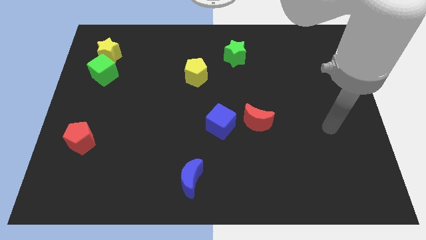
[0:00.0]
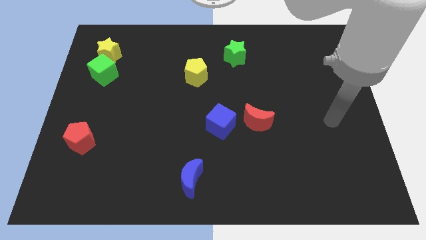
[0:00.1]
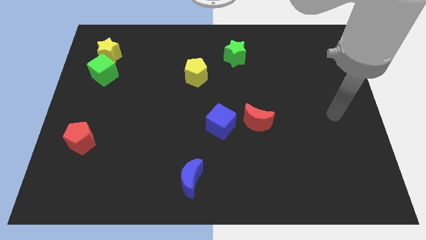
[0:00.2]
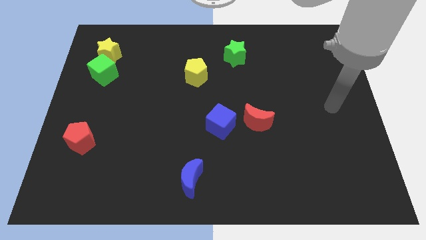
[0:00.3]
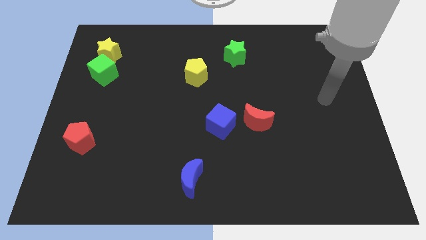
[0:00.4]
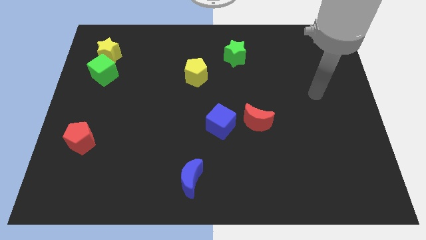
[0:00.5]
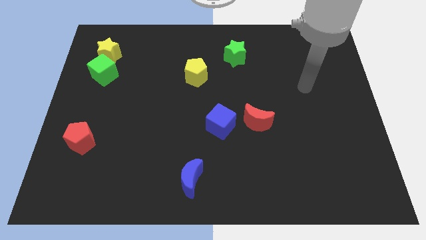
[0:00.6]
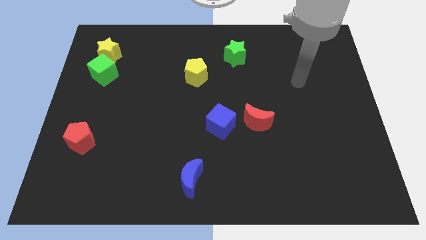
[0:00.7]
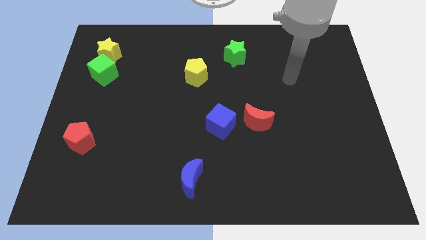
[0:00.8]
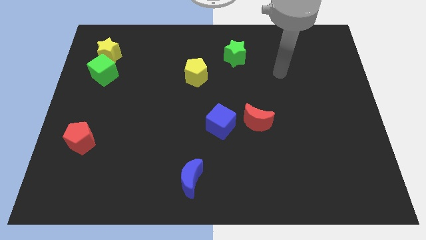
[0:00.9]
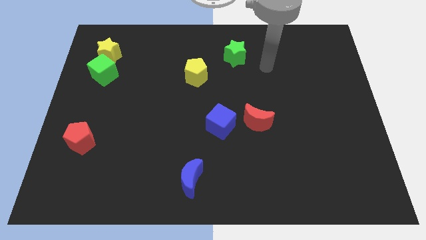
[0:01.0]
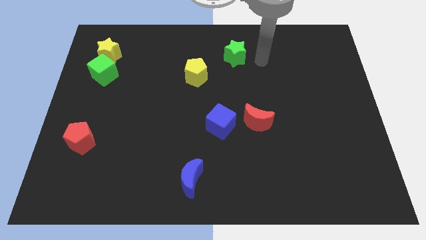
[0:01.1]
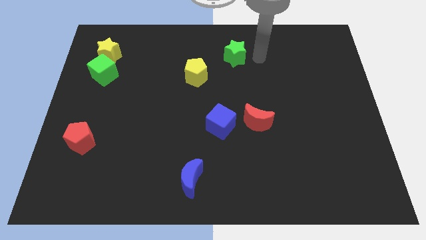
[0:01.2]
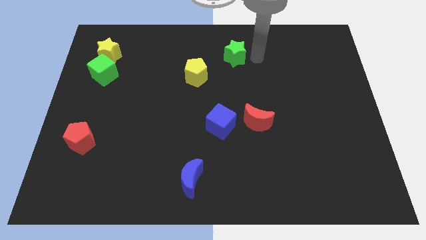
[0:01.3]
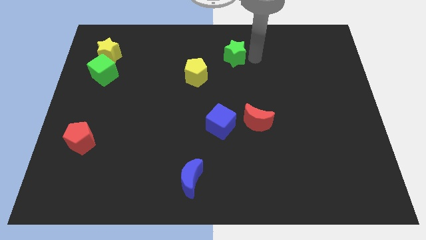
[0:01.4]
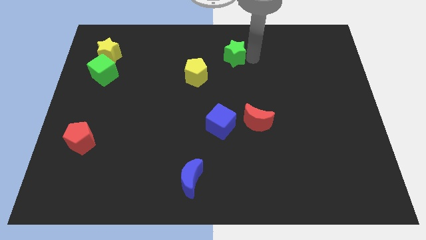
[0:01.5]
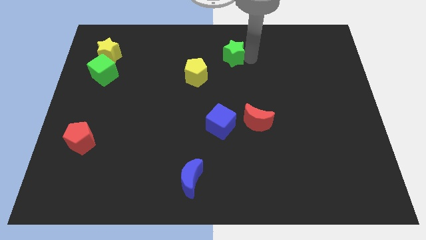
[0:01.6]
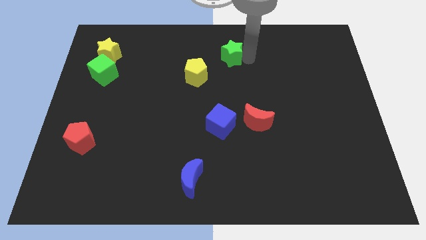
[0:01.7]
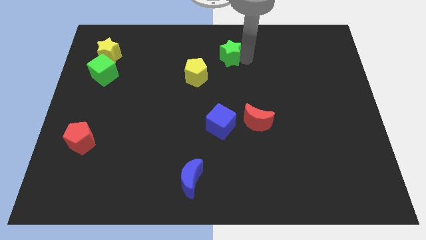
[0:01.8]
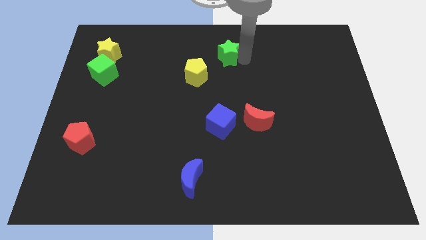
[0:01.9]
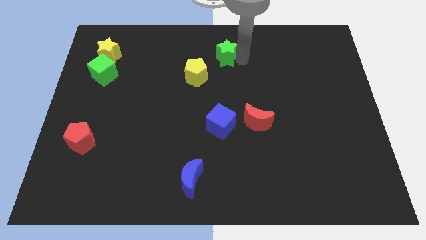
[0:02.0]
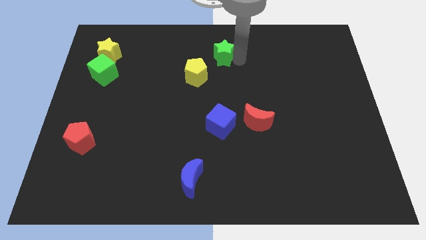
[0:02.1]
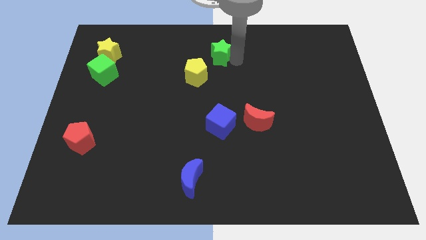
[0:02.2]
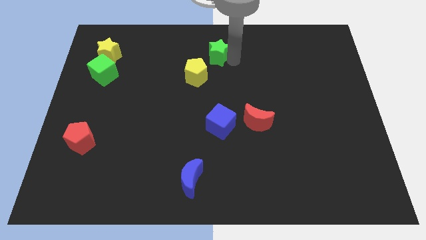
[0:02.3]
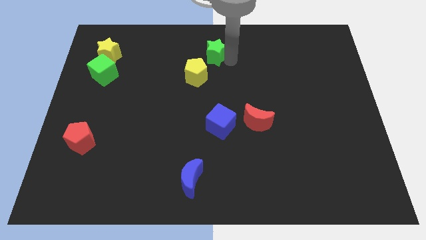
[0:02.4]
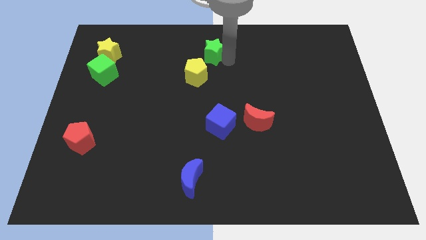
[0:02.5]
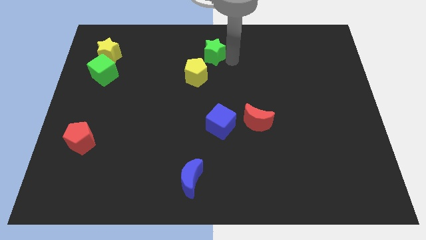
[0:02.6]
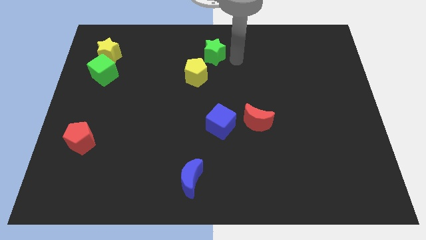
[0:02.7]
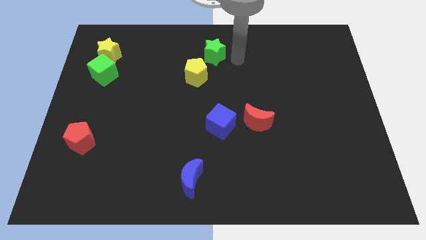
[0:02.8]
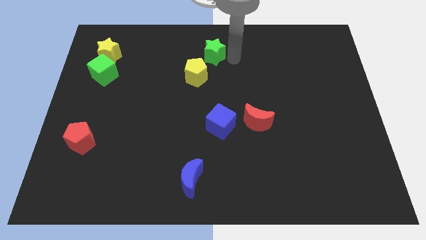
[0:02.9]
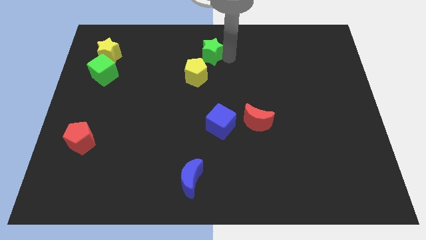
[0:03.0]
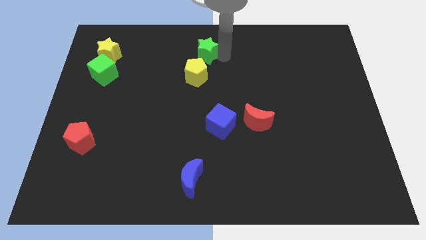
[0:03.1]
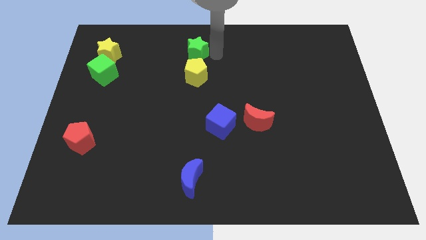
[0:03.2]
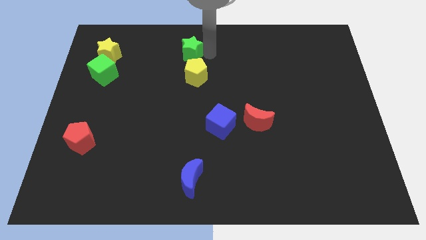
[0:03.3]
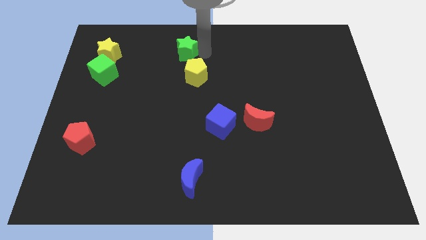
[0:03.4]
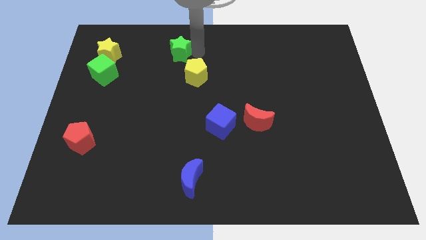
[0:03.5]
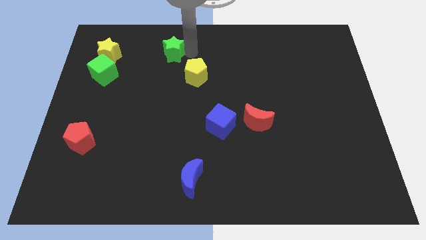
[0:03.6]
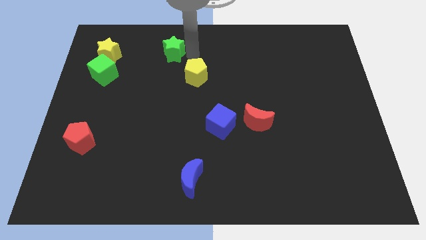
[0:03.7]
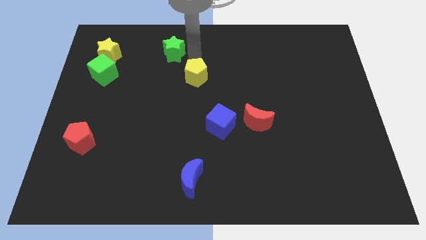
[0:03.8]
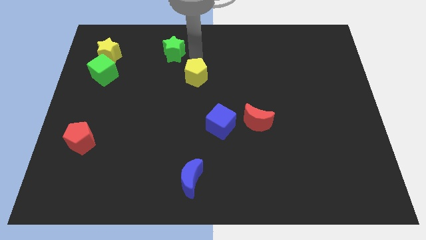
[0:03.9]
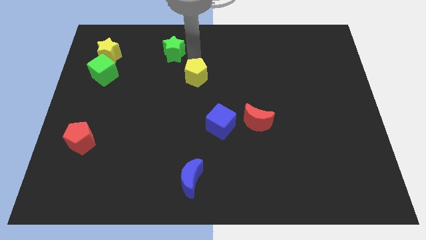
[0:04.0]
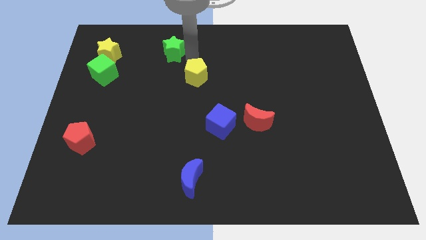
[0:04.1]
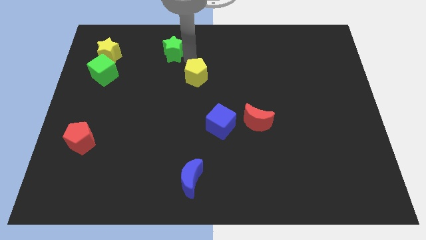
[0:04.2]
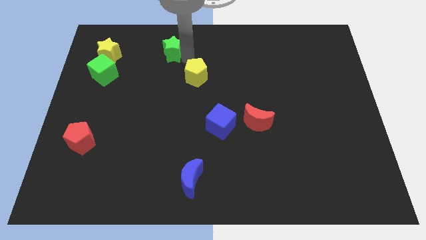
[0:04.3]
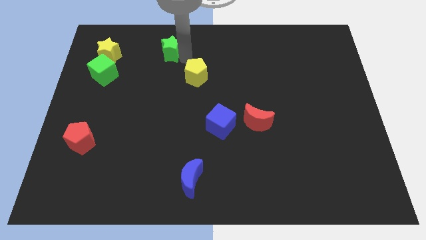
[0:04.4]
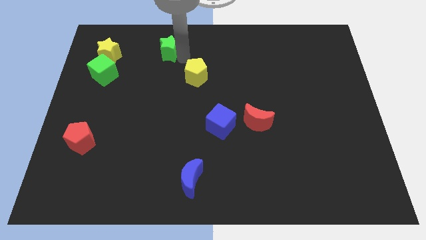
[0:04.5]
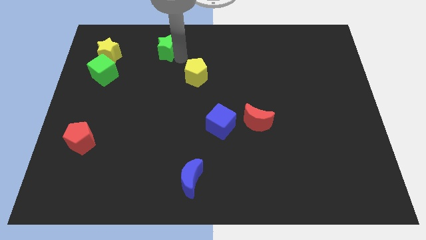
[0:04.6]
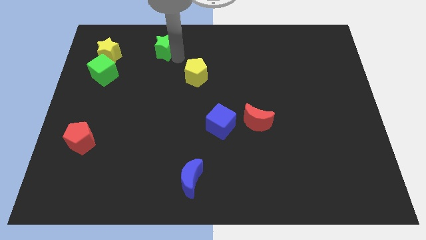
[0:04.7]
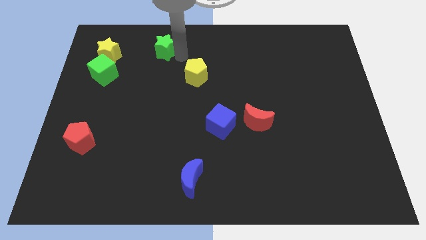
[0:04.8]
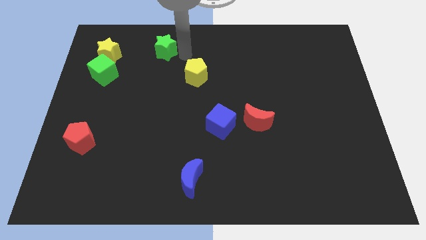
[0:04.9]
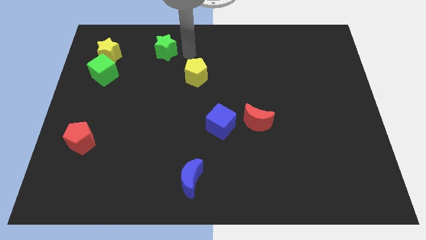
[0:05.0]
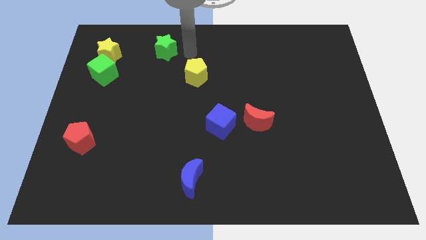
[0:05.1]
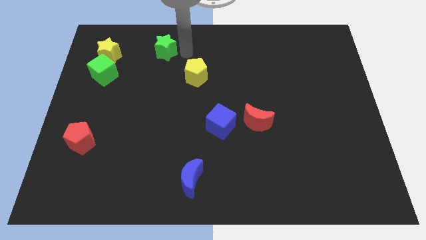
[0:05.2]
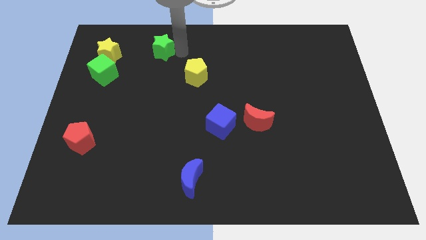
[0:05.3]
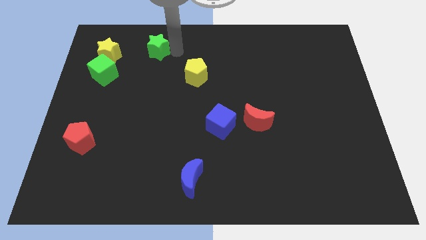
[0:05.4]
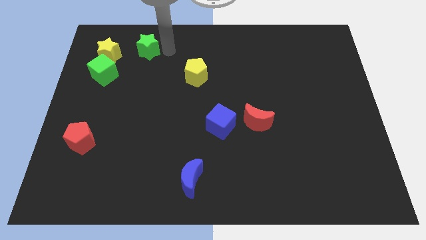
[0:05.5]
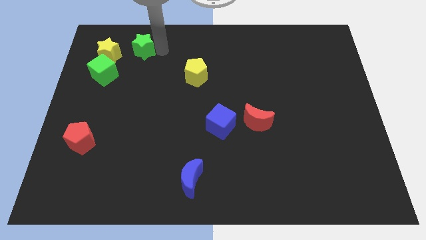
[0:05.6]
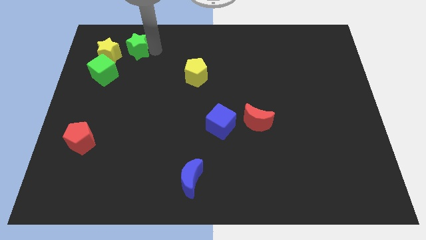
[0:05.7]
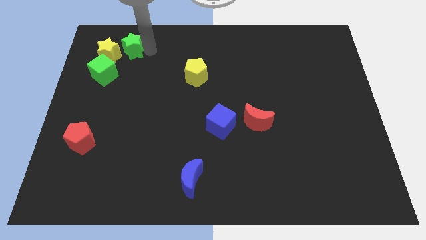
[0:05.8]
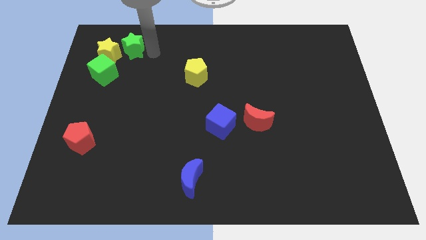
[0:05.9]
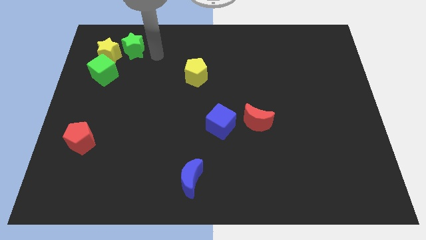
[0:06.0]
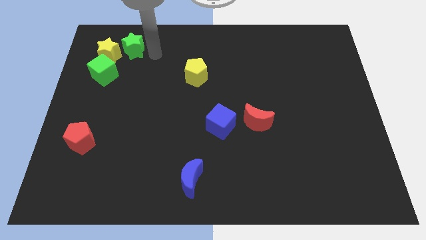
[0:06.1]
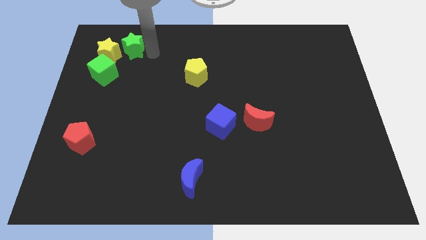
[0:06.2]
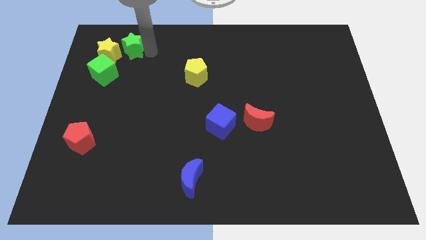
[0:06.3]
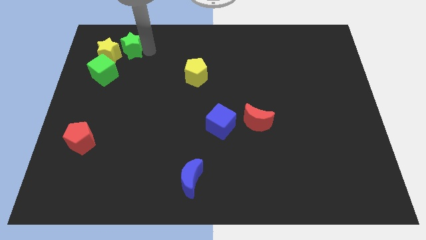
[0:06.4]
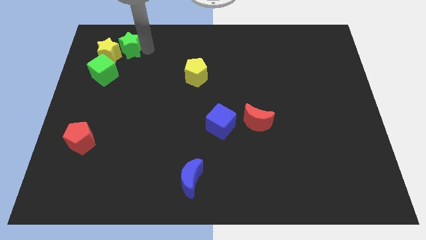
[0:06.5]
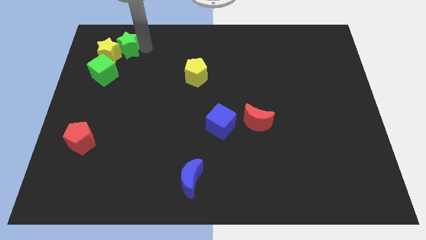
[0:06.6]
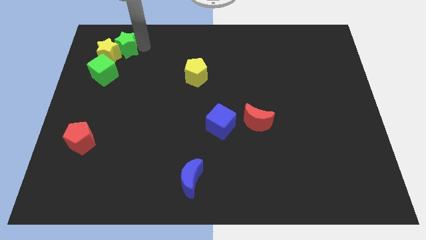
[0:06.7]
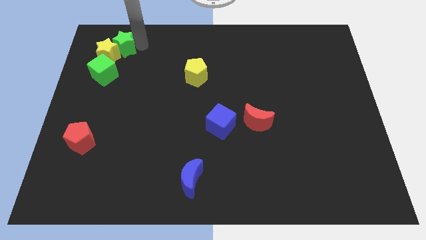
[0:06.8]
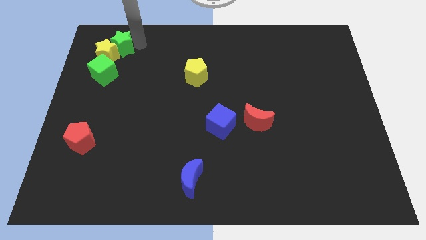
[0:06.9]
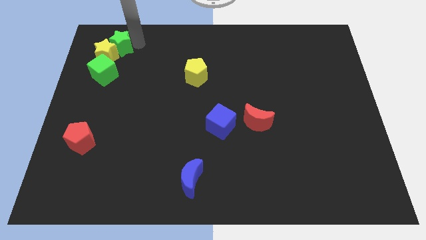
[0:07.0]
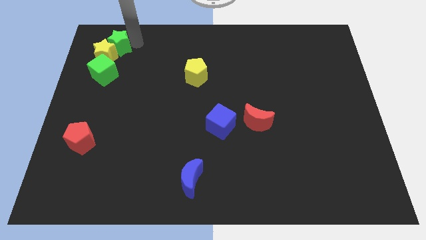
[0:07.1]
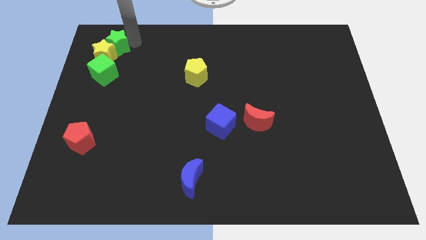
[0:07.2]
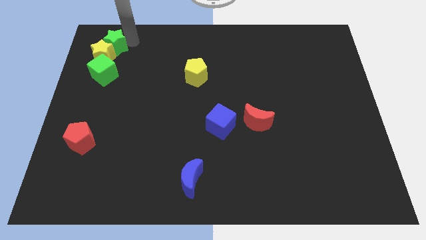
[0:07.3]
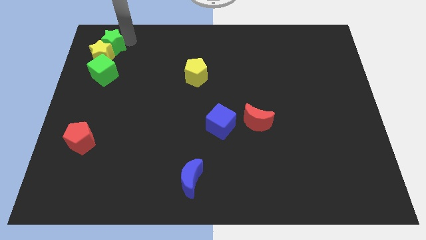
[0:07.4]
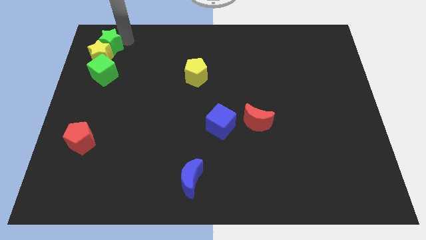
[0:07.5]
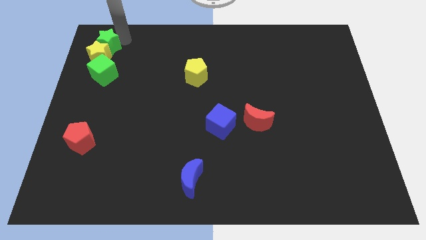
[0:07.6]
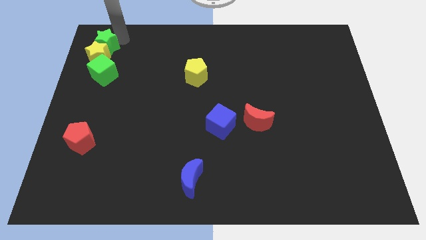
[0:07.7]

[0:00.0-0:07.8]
move the green star to the top left corner
